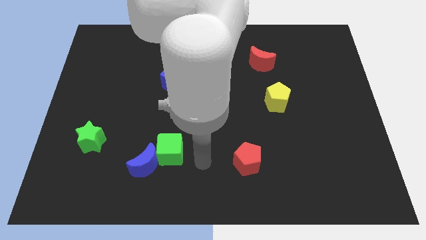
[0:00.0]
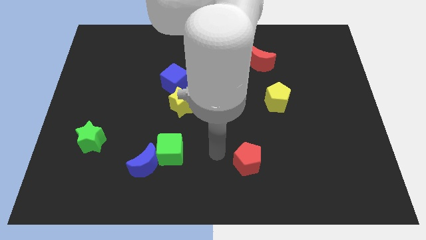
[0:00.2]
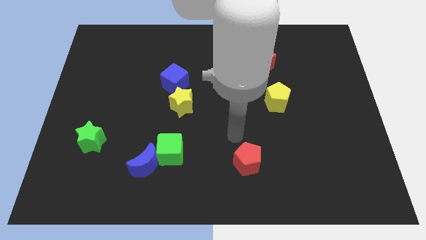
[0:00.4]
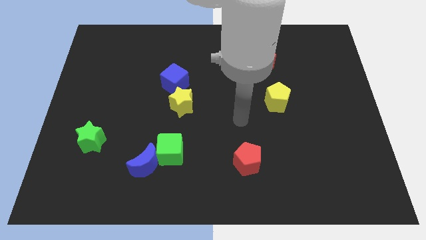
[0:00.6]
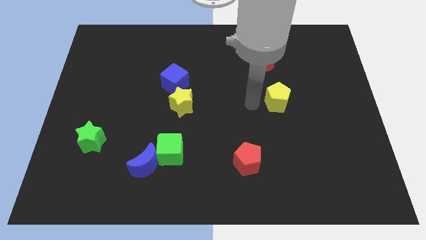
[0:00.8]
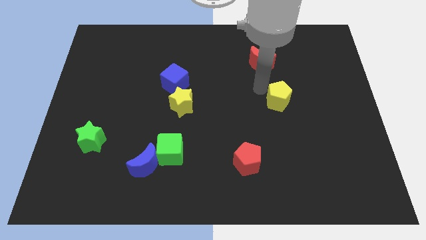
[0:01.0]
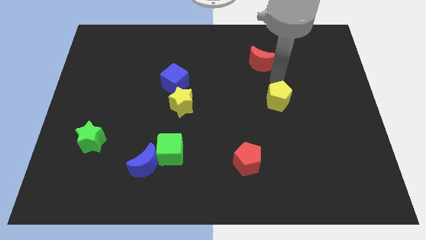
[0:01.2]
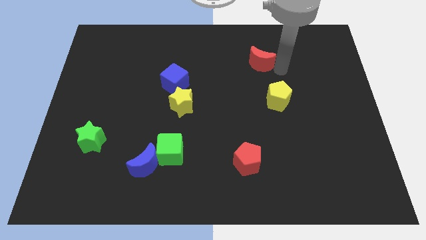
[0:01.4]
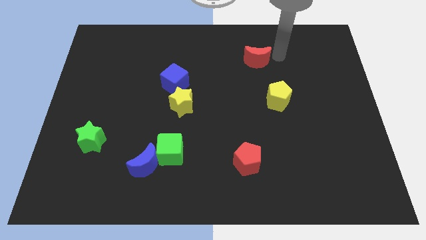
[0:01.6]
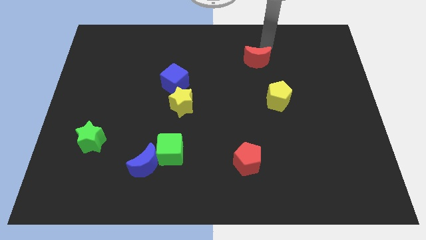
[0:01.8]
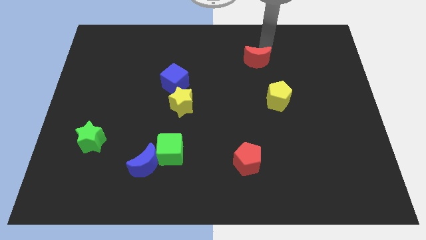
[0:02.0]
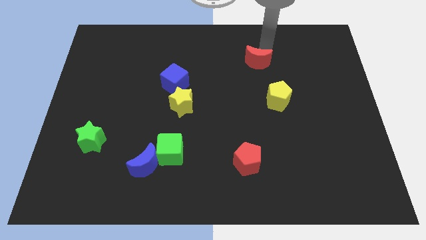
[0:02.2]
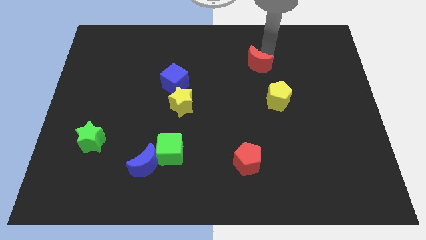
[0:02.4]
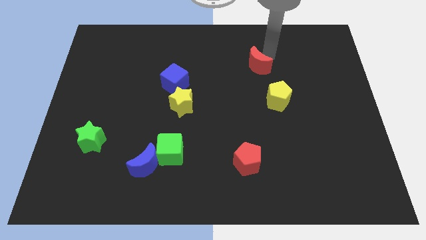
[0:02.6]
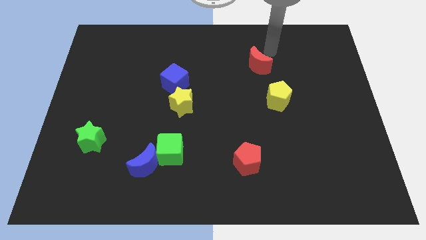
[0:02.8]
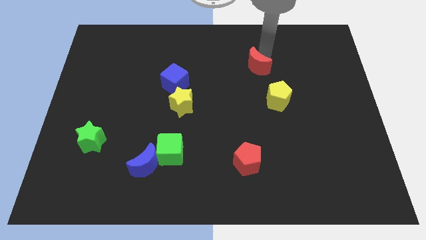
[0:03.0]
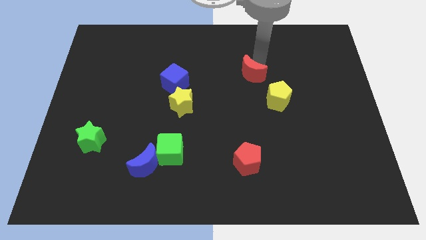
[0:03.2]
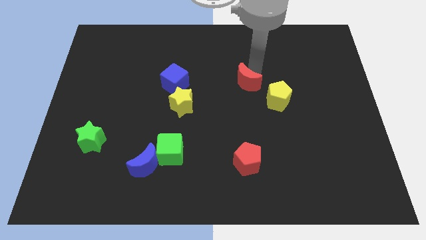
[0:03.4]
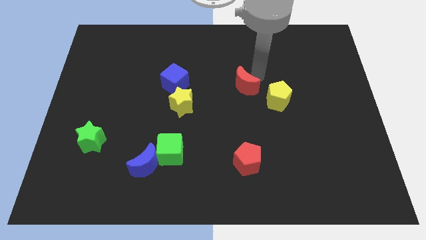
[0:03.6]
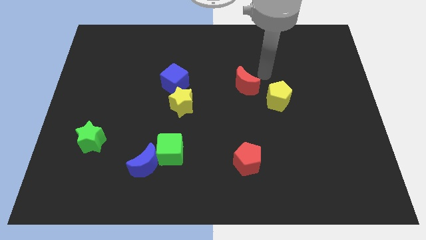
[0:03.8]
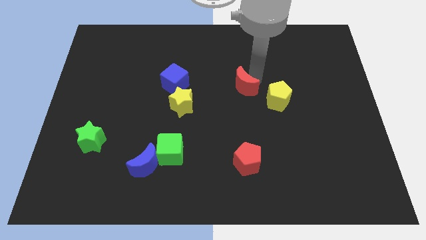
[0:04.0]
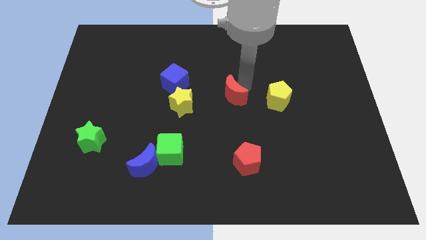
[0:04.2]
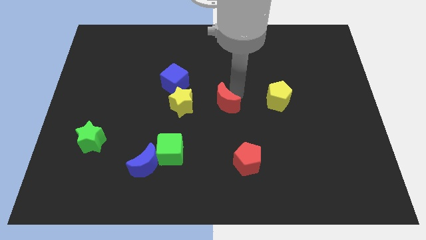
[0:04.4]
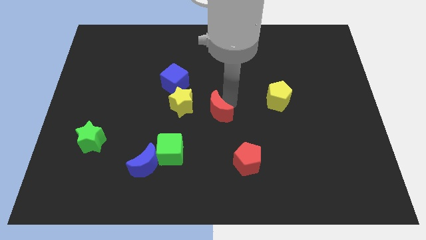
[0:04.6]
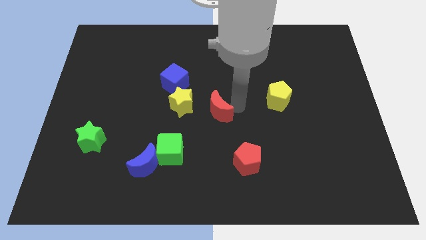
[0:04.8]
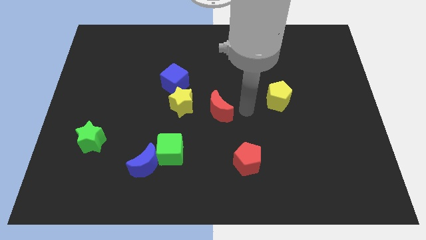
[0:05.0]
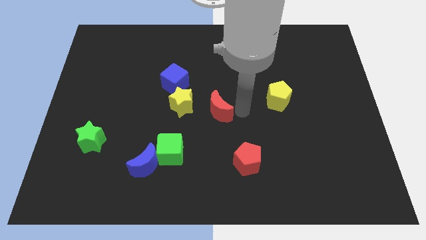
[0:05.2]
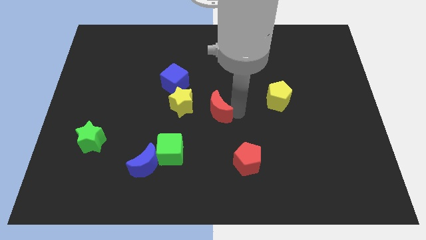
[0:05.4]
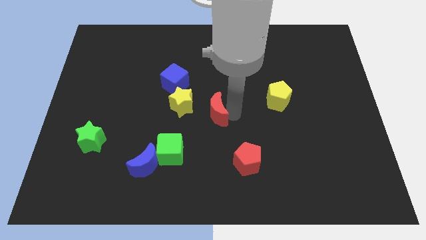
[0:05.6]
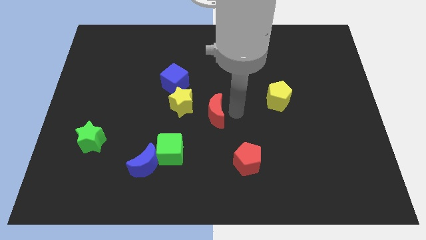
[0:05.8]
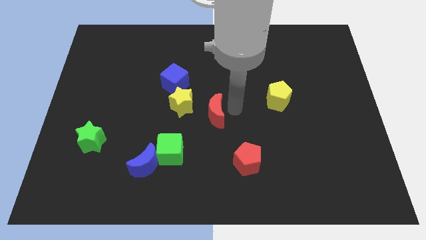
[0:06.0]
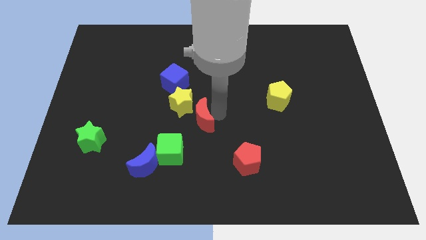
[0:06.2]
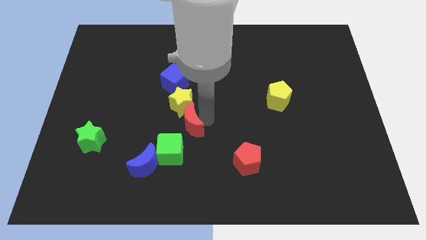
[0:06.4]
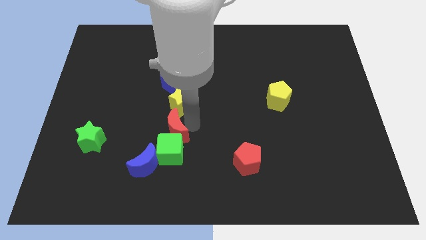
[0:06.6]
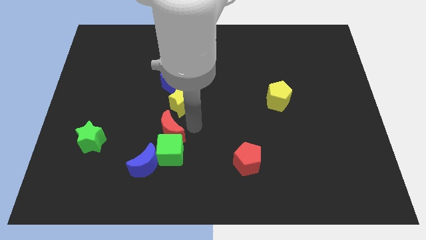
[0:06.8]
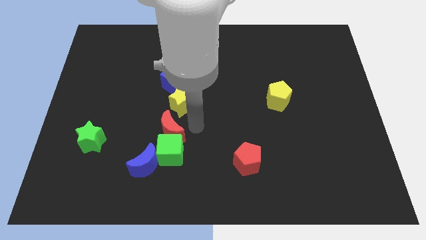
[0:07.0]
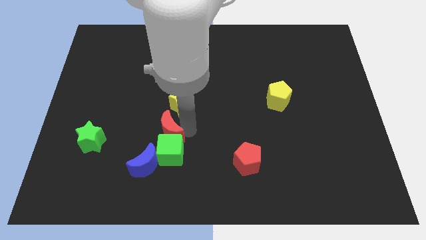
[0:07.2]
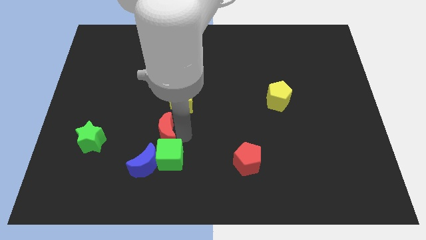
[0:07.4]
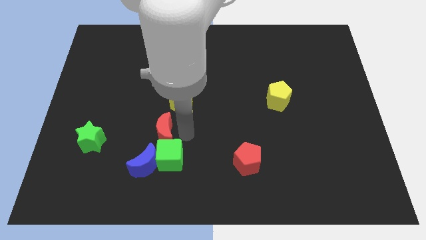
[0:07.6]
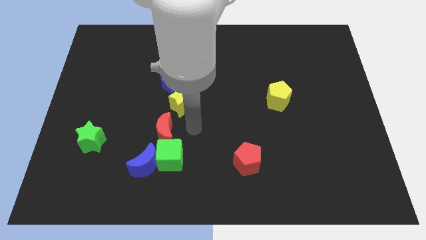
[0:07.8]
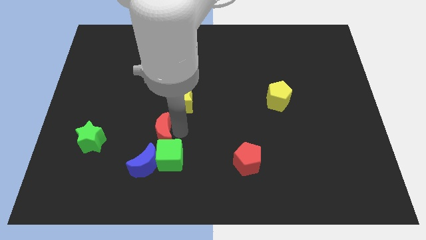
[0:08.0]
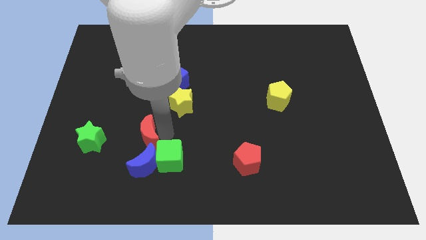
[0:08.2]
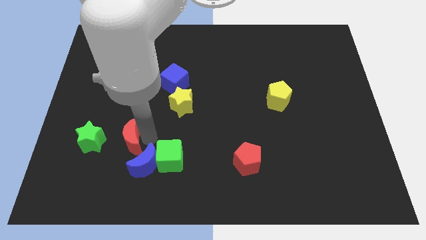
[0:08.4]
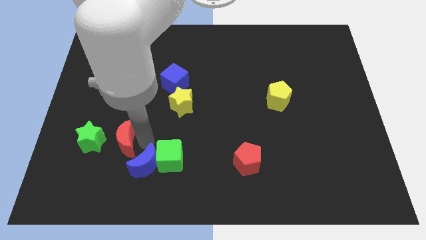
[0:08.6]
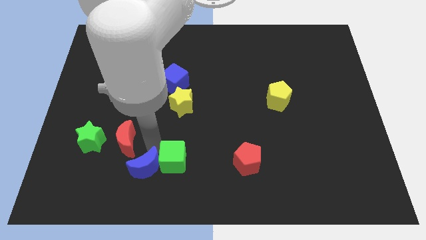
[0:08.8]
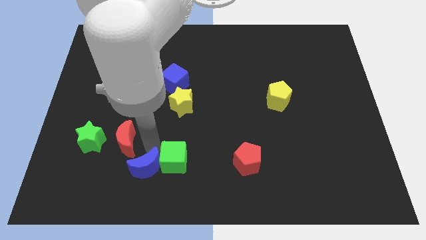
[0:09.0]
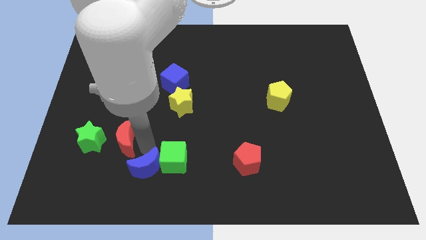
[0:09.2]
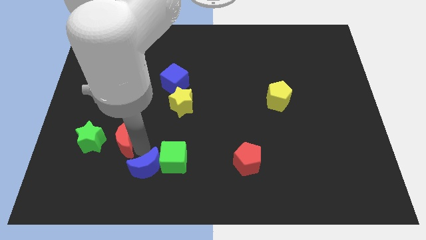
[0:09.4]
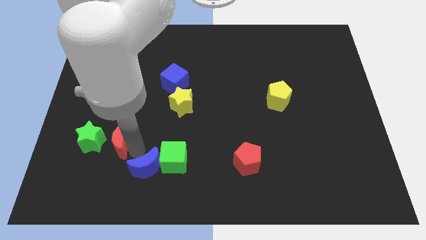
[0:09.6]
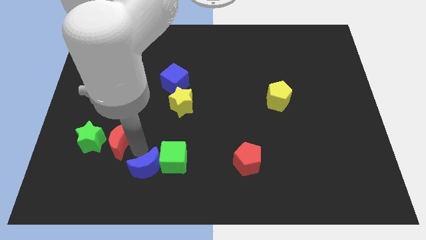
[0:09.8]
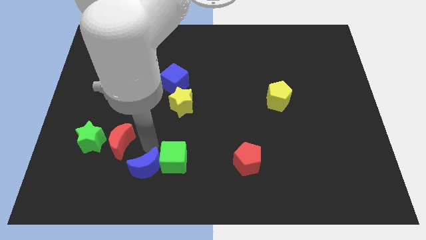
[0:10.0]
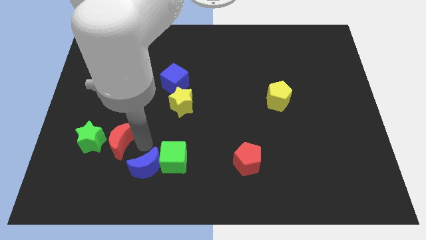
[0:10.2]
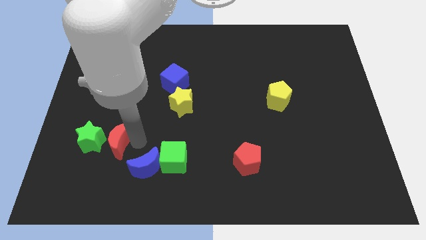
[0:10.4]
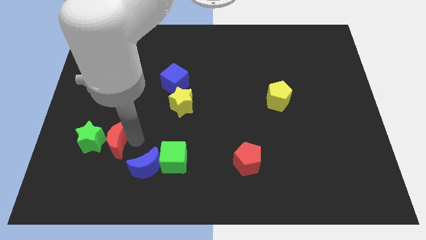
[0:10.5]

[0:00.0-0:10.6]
put the red moon close to the green star

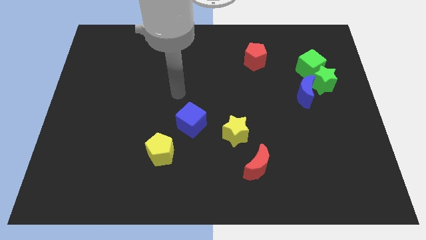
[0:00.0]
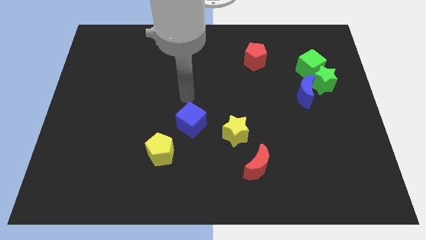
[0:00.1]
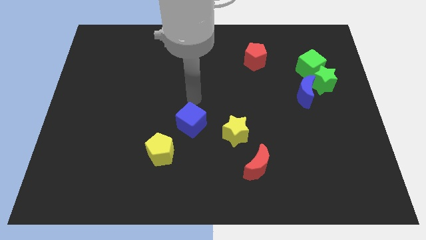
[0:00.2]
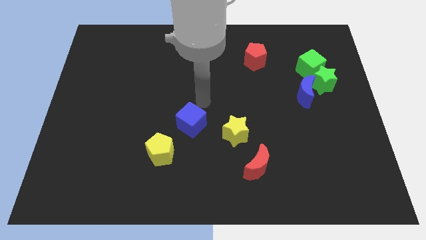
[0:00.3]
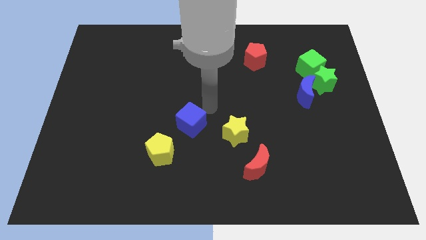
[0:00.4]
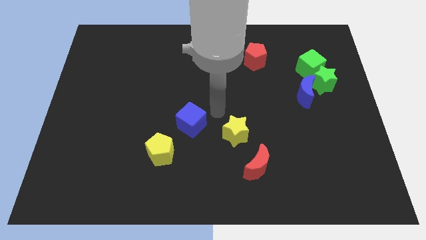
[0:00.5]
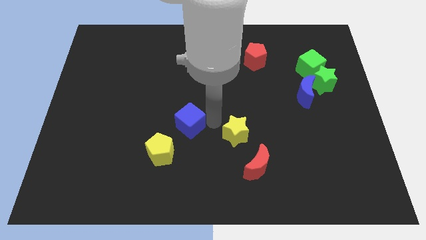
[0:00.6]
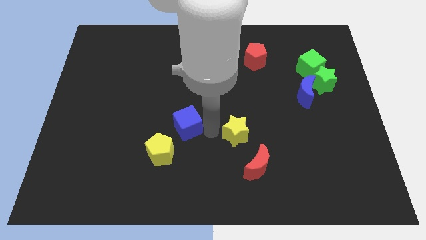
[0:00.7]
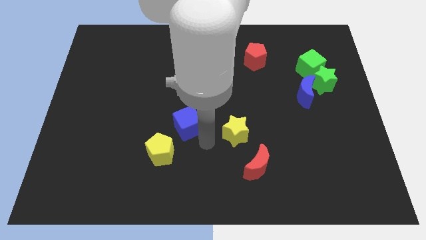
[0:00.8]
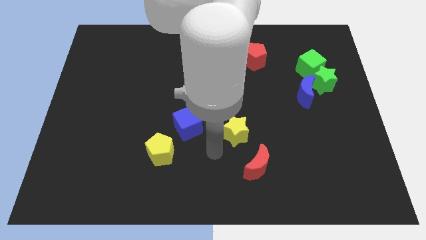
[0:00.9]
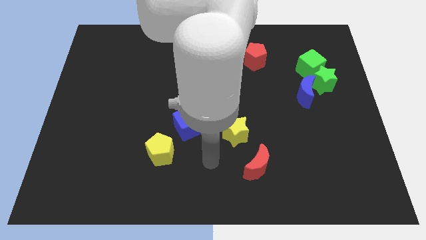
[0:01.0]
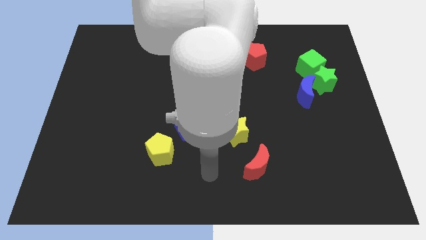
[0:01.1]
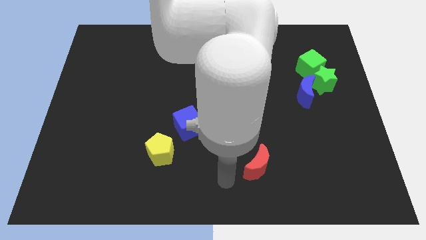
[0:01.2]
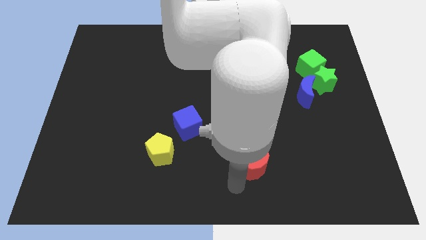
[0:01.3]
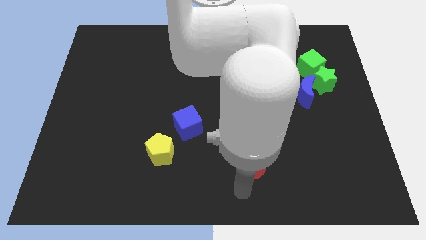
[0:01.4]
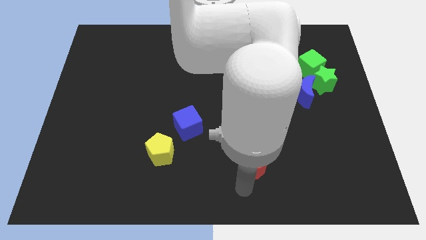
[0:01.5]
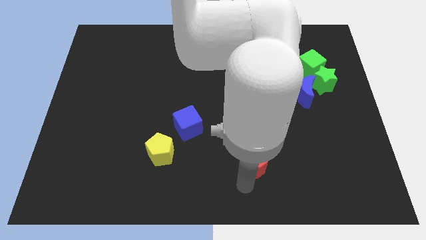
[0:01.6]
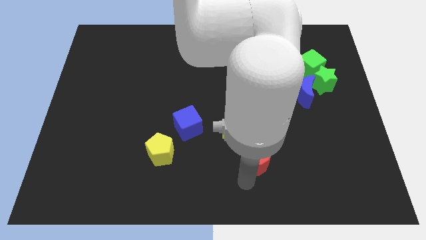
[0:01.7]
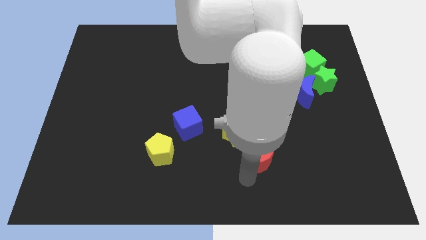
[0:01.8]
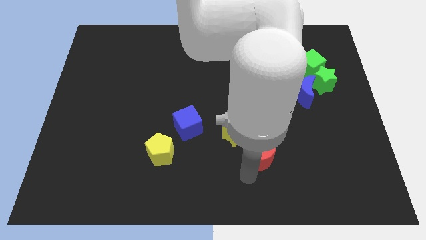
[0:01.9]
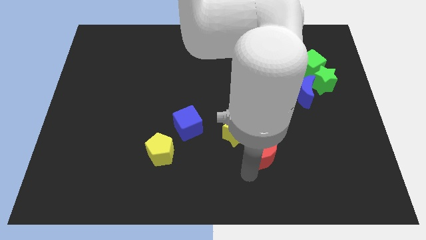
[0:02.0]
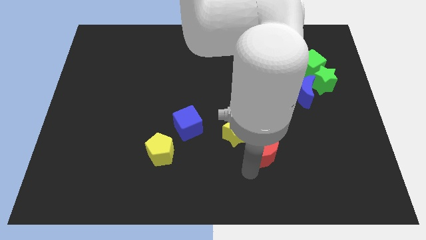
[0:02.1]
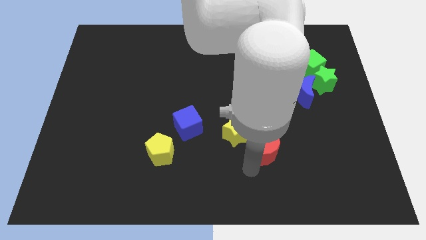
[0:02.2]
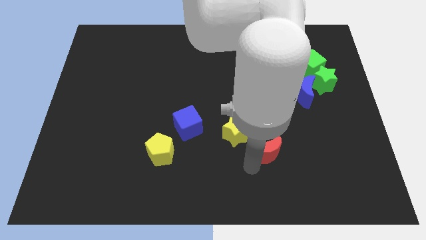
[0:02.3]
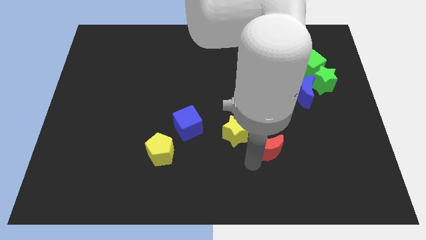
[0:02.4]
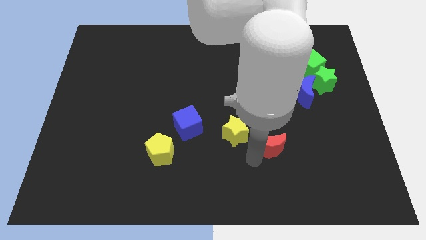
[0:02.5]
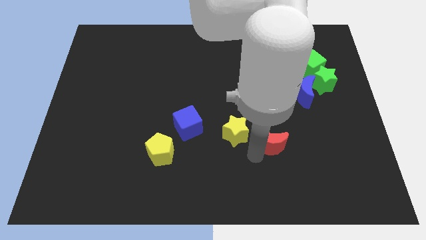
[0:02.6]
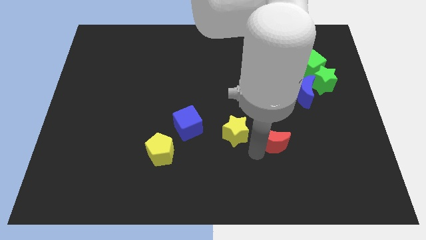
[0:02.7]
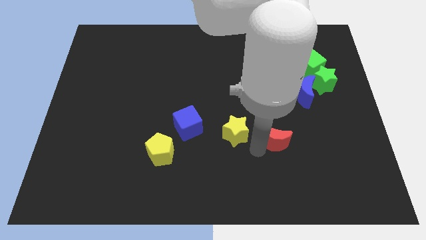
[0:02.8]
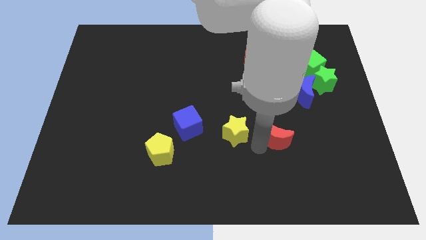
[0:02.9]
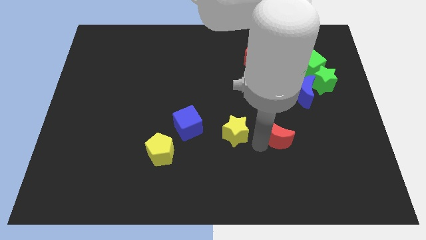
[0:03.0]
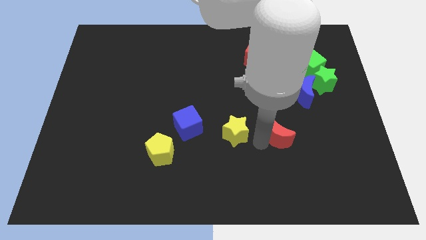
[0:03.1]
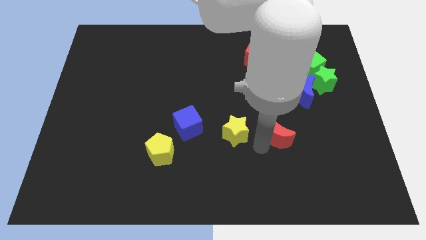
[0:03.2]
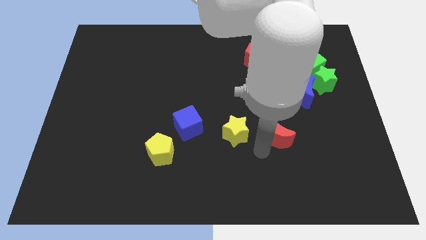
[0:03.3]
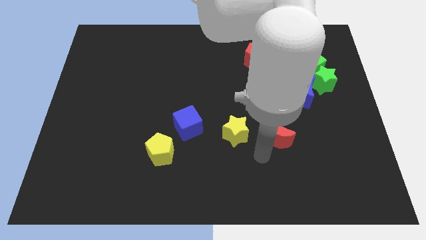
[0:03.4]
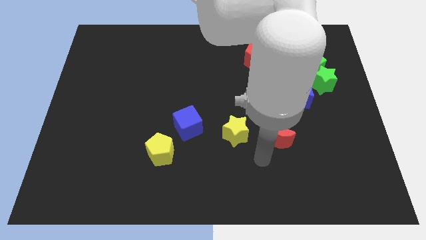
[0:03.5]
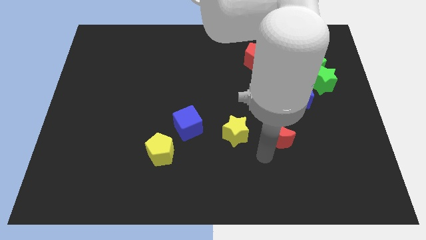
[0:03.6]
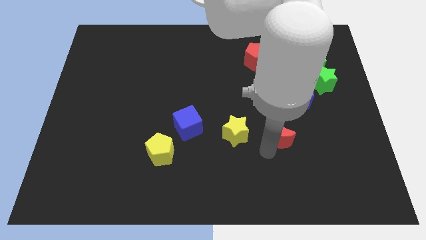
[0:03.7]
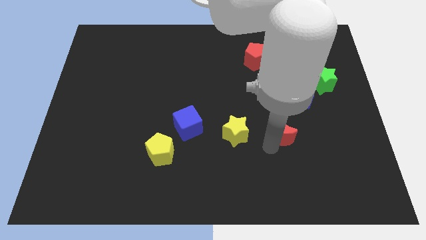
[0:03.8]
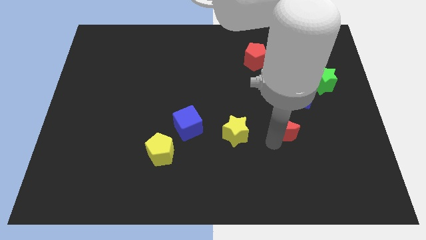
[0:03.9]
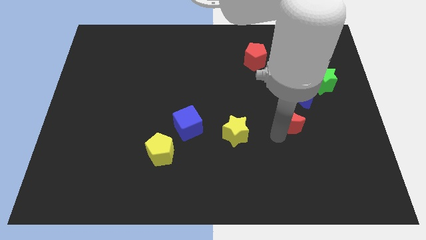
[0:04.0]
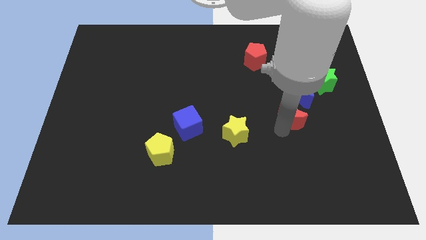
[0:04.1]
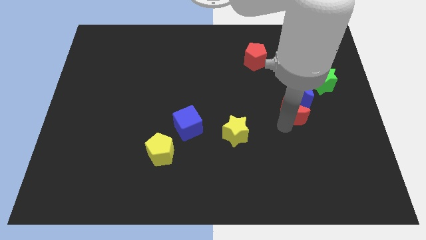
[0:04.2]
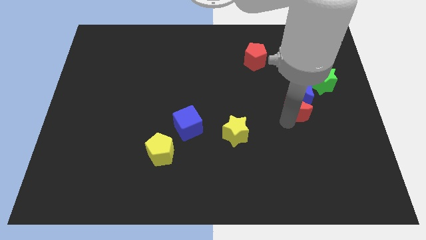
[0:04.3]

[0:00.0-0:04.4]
slide the red moon close to the blue moon
